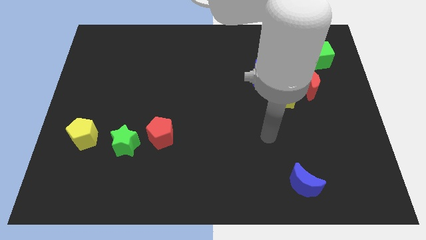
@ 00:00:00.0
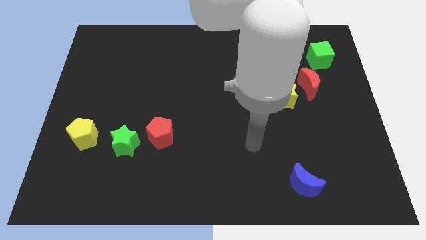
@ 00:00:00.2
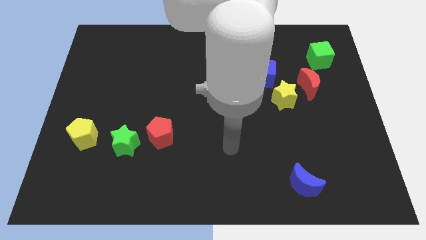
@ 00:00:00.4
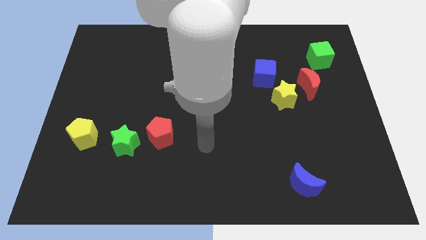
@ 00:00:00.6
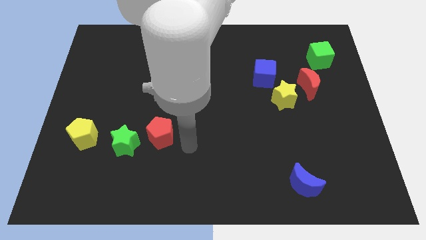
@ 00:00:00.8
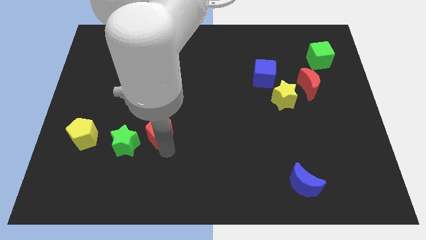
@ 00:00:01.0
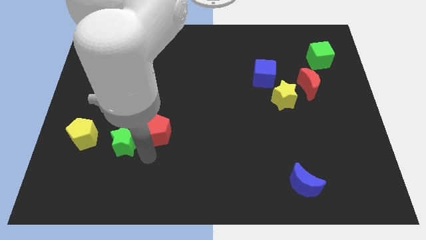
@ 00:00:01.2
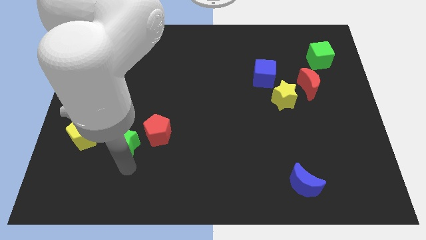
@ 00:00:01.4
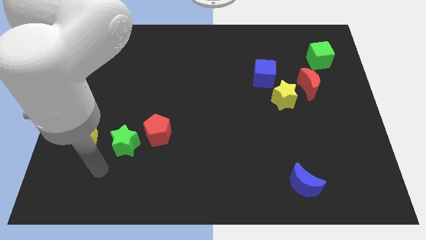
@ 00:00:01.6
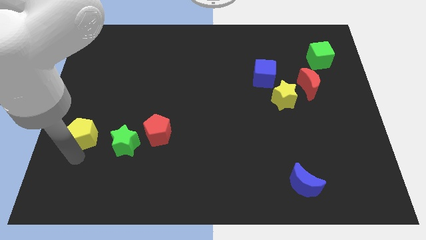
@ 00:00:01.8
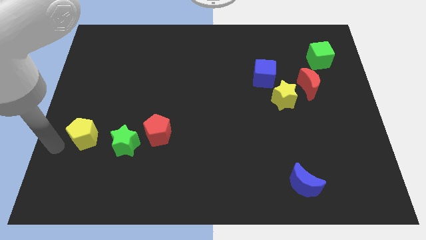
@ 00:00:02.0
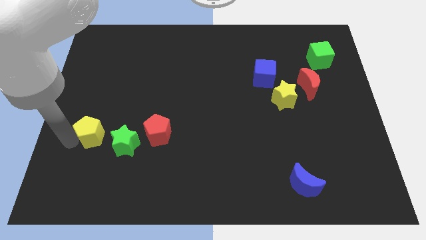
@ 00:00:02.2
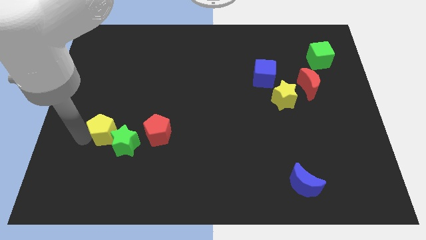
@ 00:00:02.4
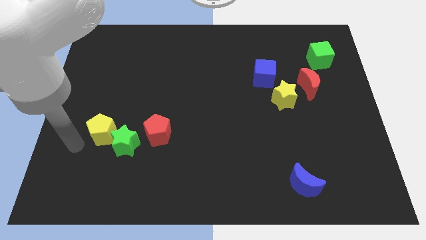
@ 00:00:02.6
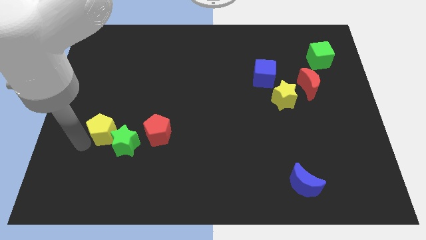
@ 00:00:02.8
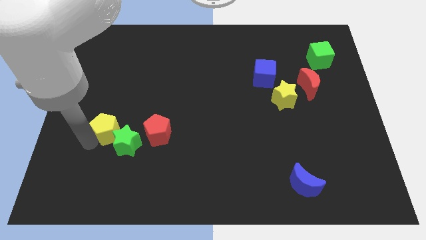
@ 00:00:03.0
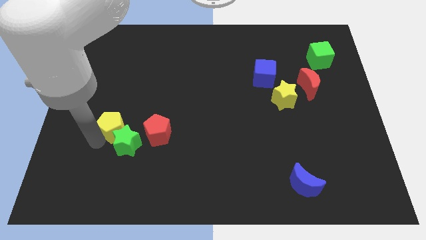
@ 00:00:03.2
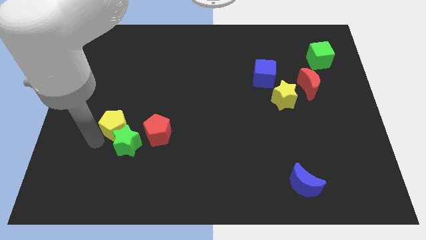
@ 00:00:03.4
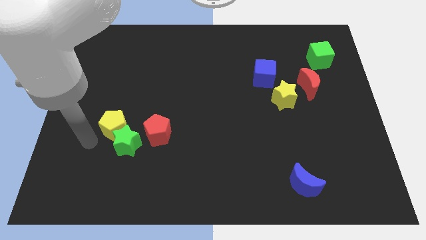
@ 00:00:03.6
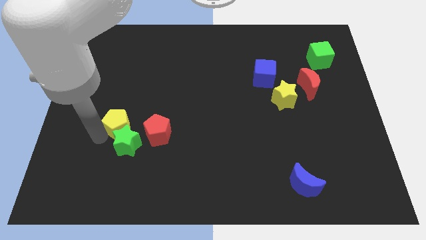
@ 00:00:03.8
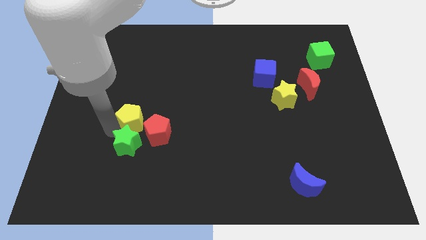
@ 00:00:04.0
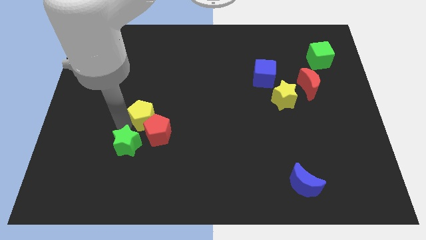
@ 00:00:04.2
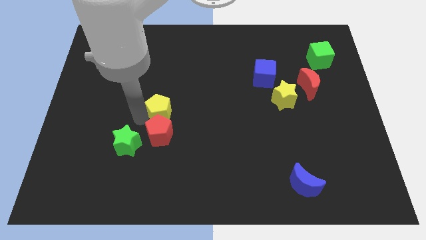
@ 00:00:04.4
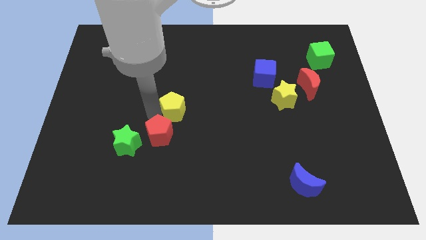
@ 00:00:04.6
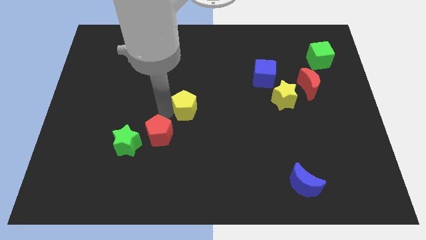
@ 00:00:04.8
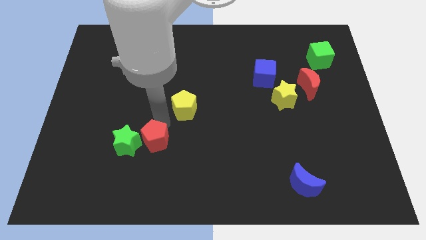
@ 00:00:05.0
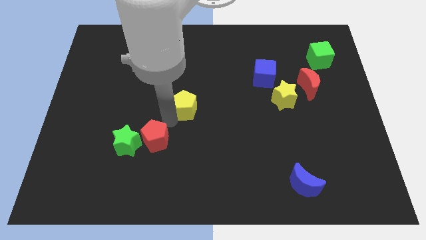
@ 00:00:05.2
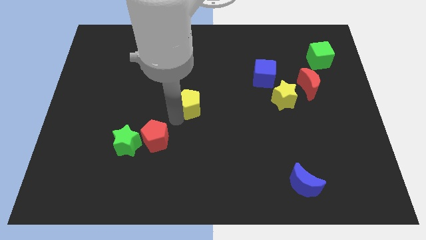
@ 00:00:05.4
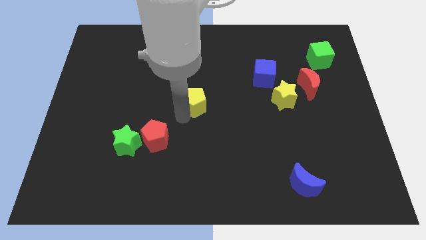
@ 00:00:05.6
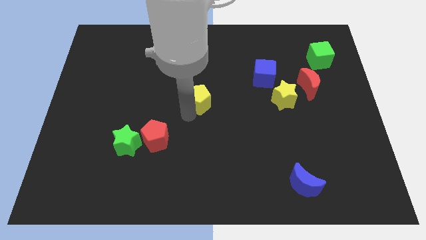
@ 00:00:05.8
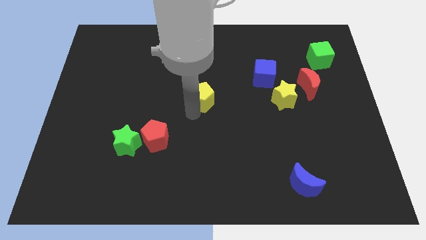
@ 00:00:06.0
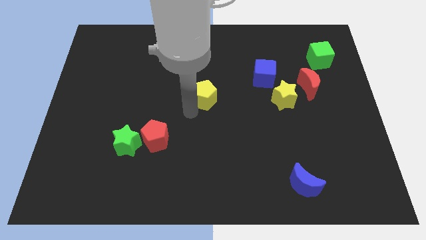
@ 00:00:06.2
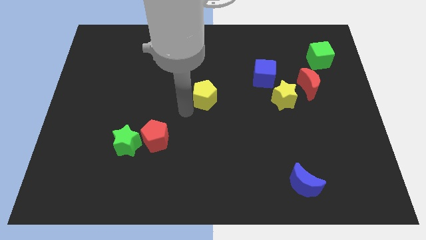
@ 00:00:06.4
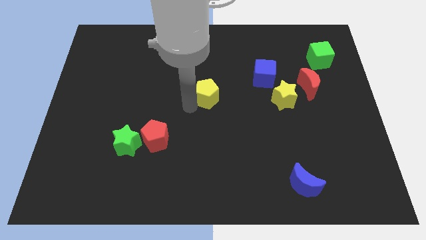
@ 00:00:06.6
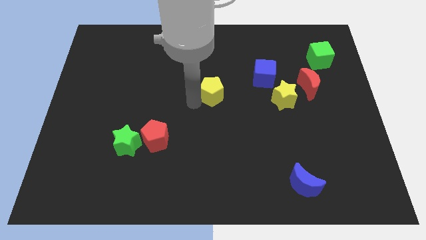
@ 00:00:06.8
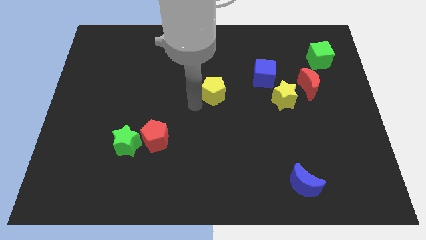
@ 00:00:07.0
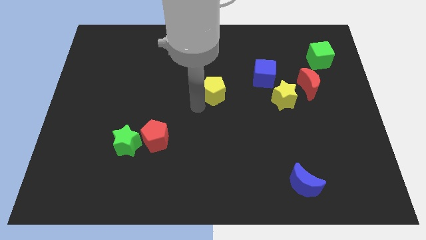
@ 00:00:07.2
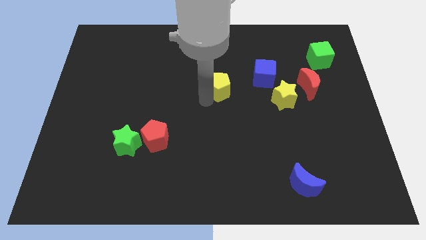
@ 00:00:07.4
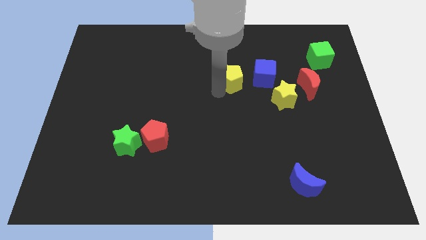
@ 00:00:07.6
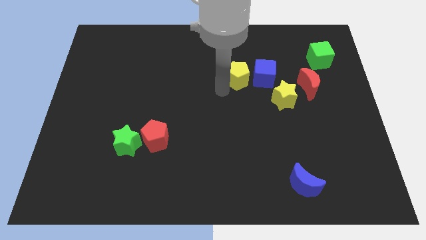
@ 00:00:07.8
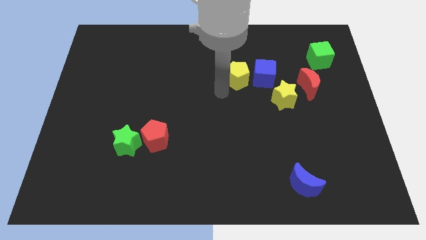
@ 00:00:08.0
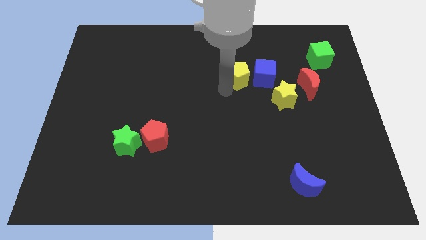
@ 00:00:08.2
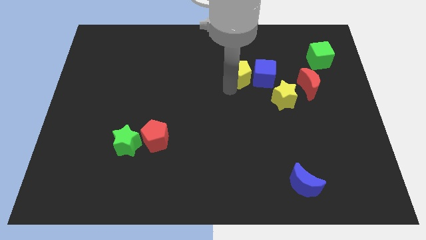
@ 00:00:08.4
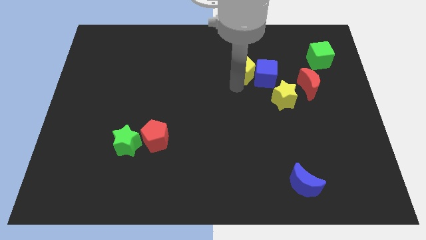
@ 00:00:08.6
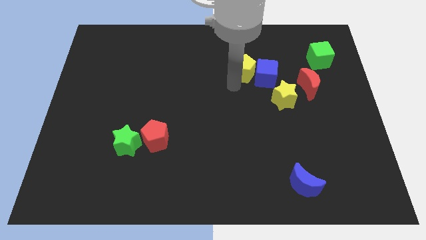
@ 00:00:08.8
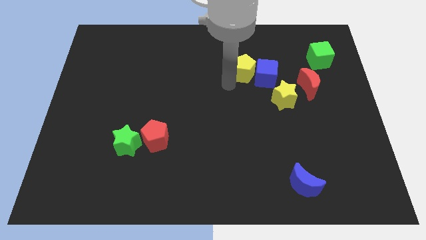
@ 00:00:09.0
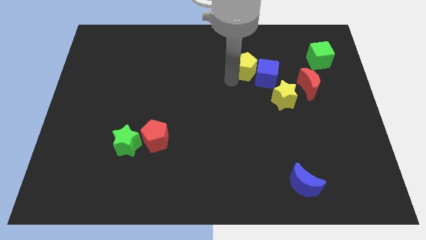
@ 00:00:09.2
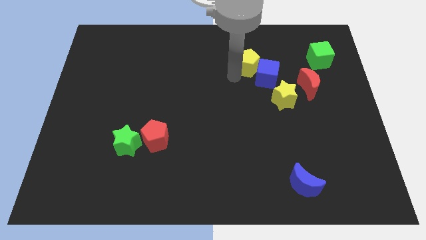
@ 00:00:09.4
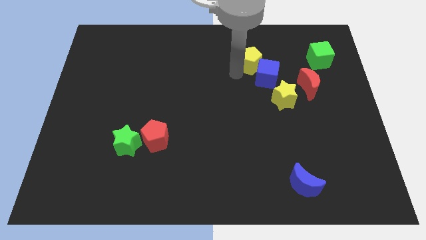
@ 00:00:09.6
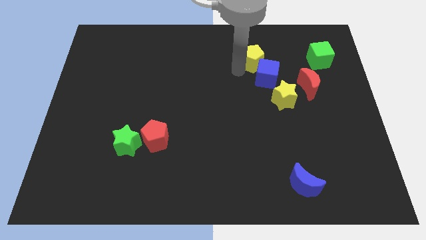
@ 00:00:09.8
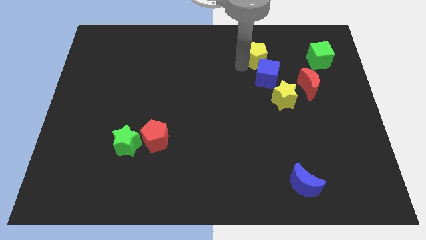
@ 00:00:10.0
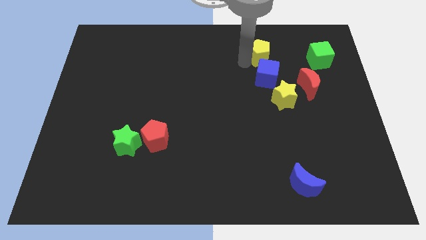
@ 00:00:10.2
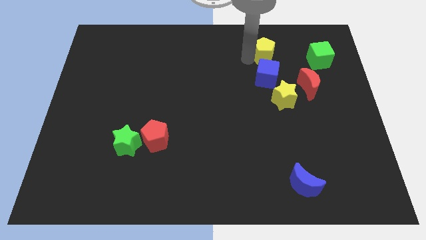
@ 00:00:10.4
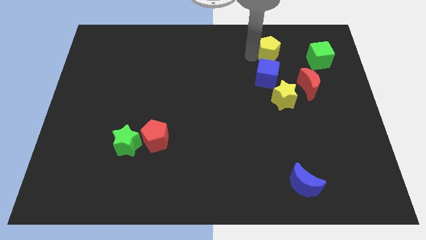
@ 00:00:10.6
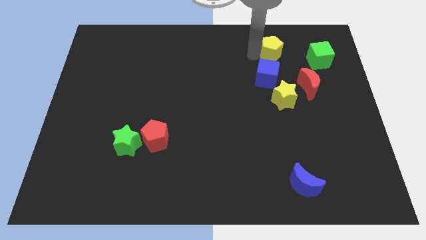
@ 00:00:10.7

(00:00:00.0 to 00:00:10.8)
move the yellow pentagon to the top right side of the blue cube

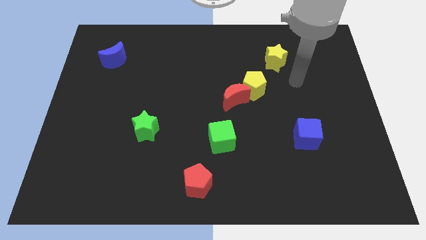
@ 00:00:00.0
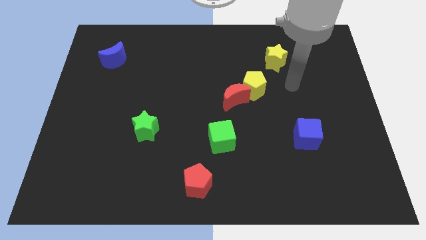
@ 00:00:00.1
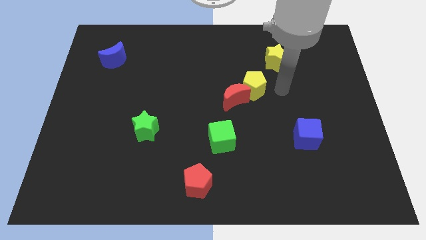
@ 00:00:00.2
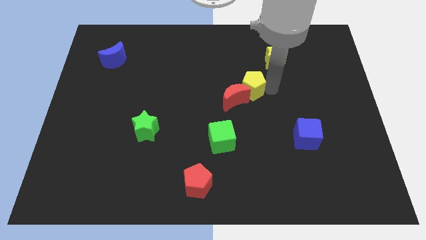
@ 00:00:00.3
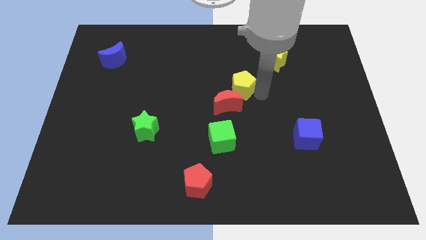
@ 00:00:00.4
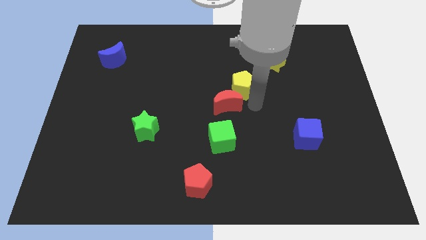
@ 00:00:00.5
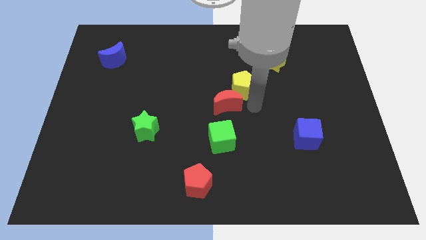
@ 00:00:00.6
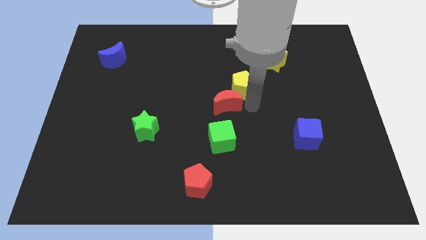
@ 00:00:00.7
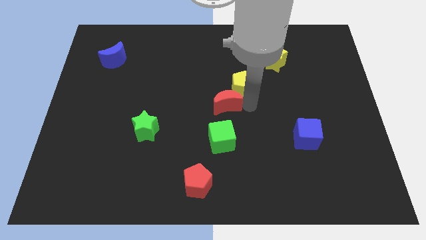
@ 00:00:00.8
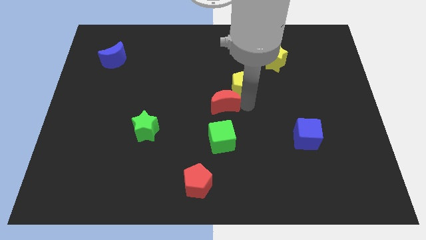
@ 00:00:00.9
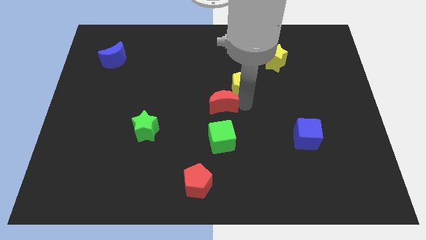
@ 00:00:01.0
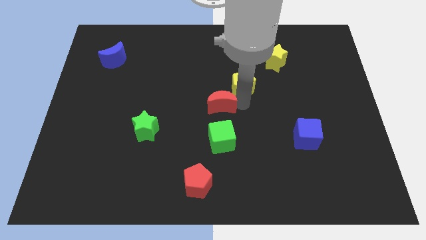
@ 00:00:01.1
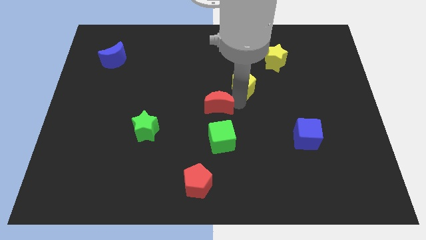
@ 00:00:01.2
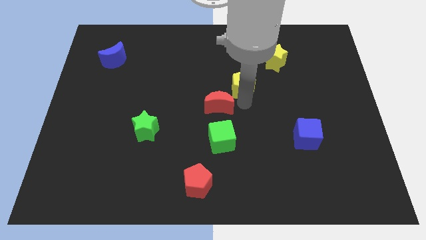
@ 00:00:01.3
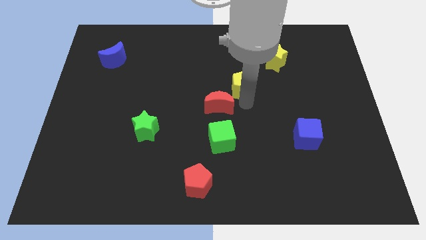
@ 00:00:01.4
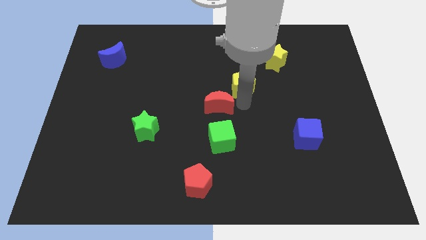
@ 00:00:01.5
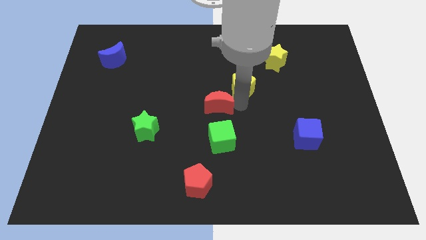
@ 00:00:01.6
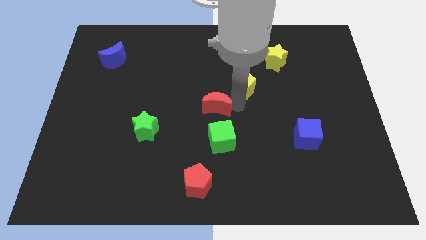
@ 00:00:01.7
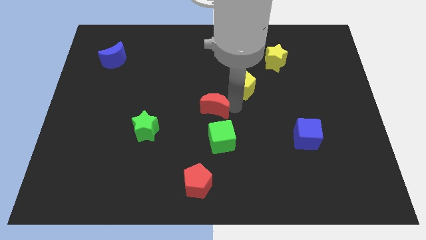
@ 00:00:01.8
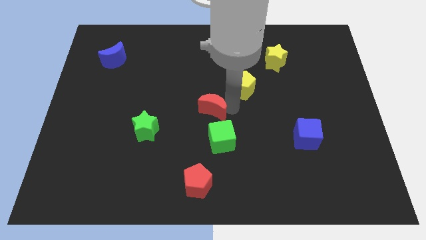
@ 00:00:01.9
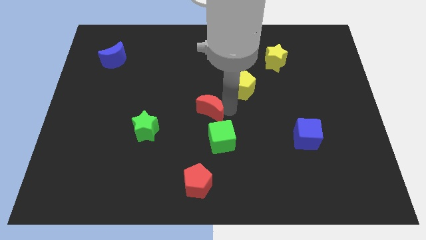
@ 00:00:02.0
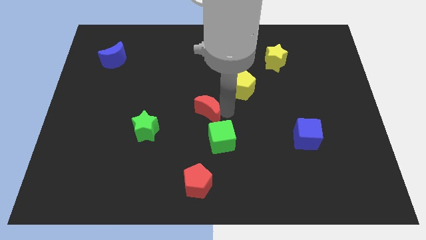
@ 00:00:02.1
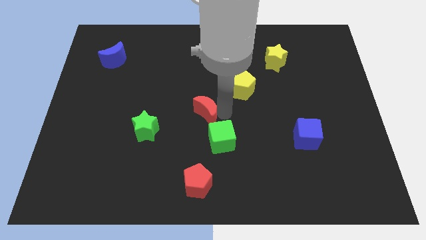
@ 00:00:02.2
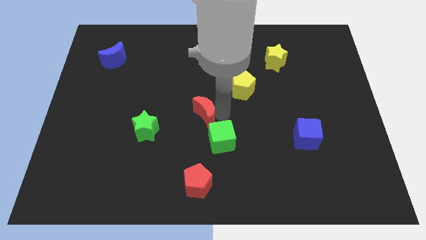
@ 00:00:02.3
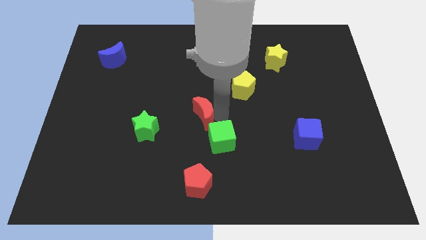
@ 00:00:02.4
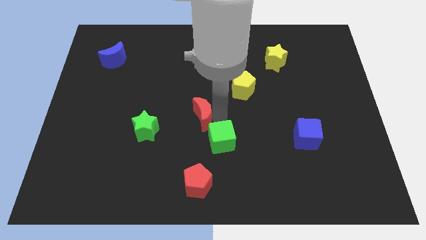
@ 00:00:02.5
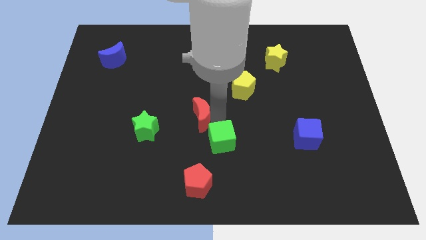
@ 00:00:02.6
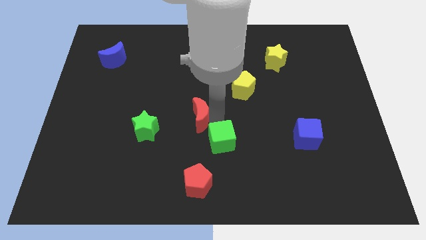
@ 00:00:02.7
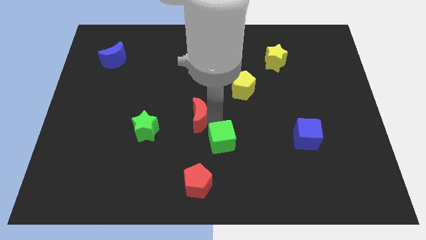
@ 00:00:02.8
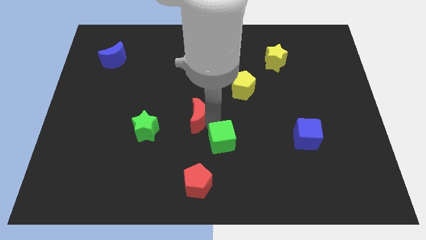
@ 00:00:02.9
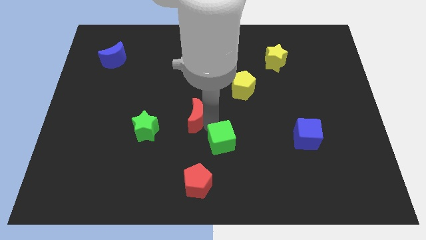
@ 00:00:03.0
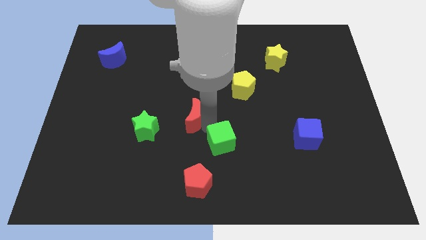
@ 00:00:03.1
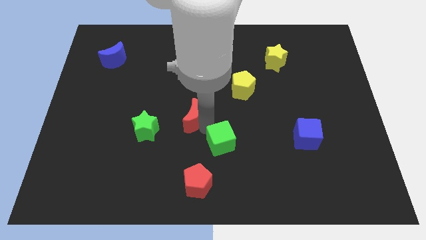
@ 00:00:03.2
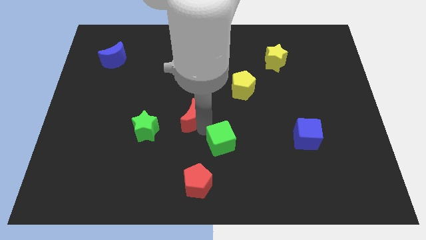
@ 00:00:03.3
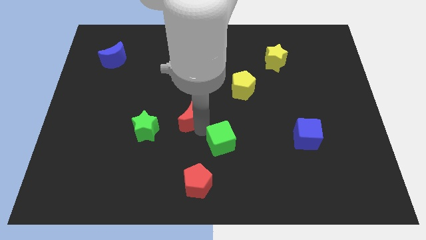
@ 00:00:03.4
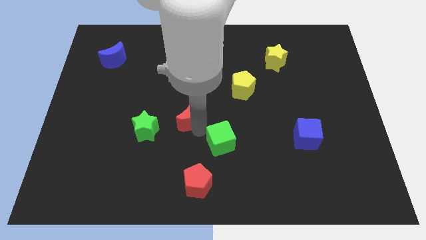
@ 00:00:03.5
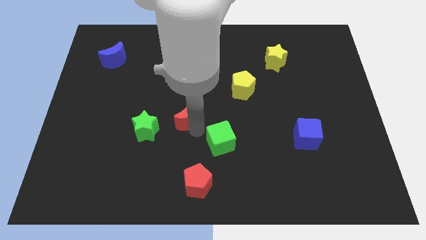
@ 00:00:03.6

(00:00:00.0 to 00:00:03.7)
put the red moon to the top right of the green star
